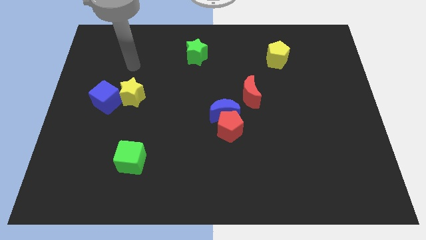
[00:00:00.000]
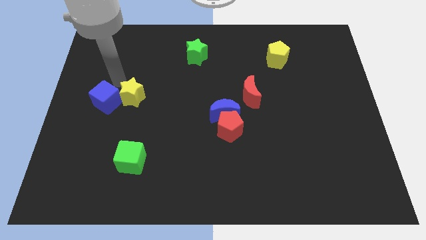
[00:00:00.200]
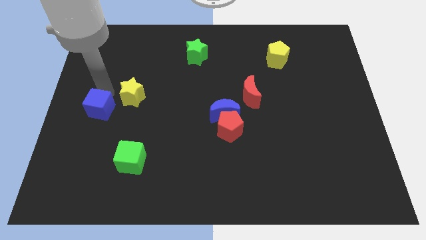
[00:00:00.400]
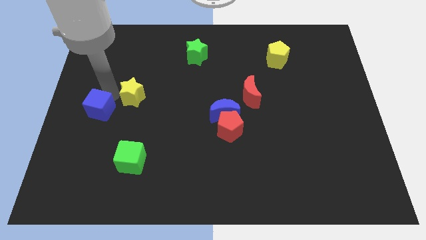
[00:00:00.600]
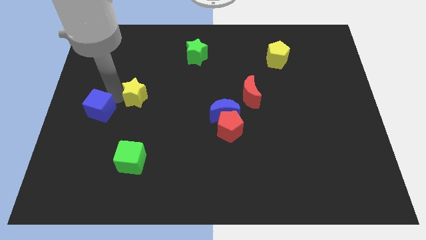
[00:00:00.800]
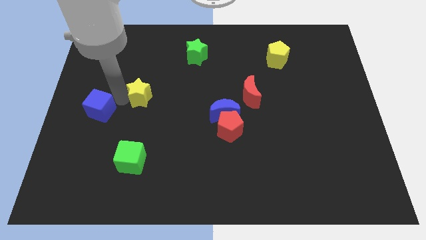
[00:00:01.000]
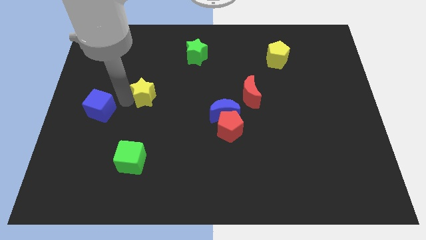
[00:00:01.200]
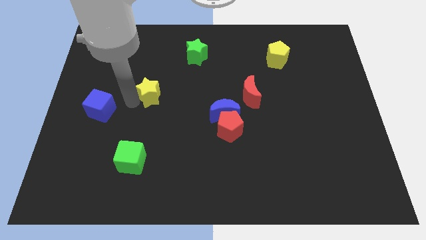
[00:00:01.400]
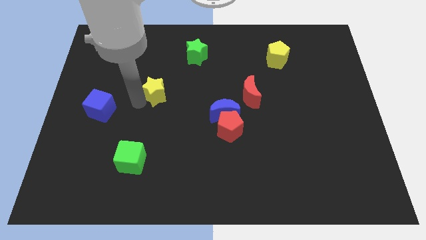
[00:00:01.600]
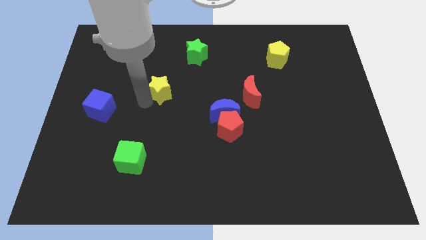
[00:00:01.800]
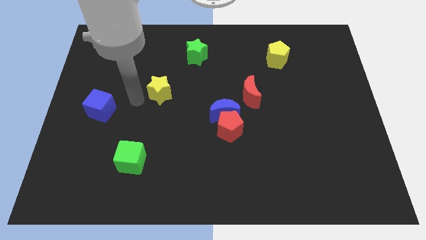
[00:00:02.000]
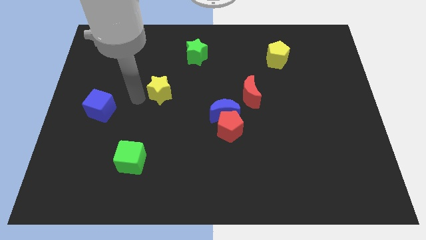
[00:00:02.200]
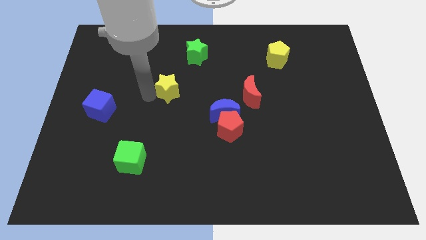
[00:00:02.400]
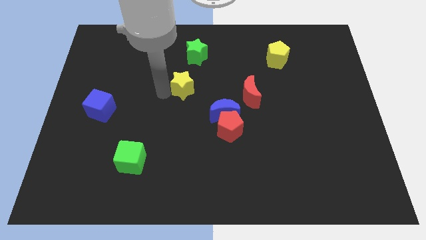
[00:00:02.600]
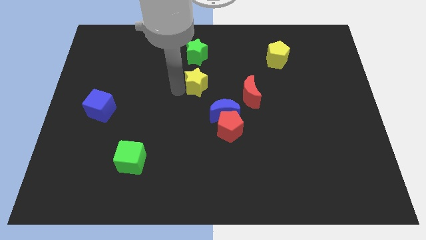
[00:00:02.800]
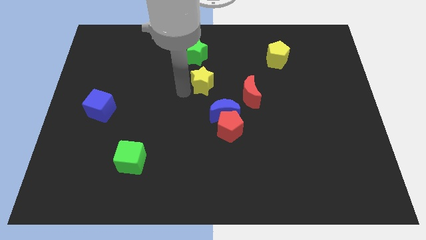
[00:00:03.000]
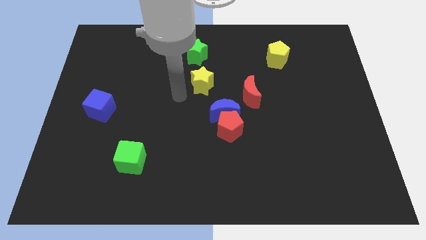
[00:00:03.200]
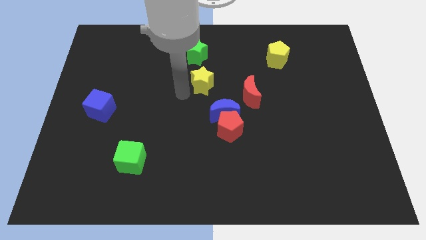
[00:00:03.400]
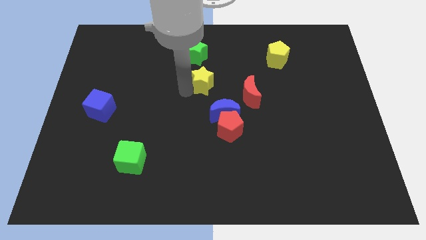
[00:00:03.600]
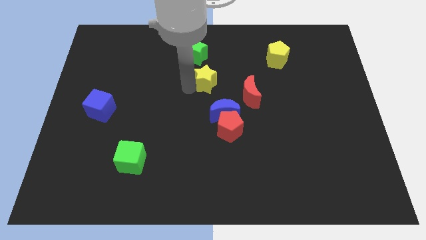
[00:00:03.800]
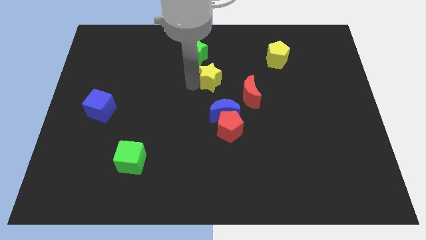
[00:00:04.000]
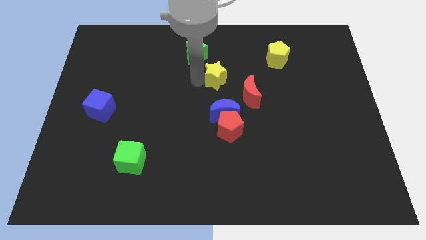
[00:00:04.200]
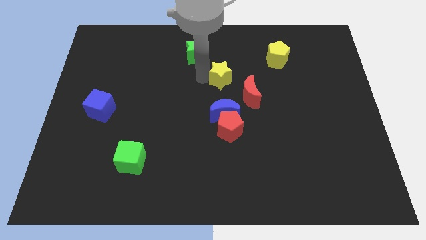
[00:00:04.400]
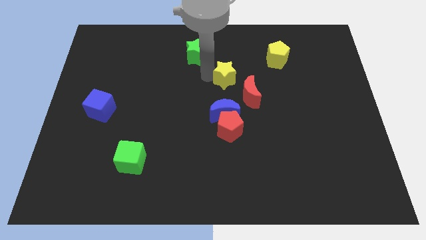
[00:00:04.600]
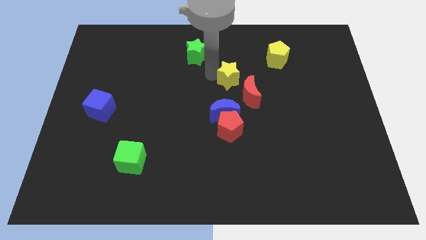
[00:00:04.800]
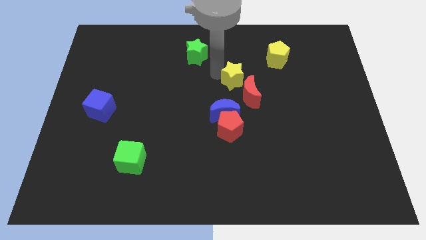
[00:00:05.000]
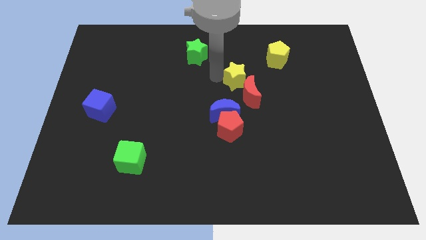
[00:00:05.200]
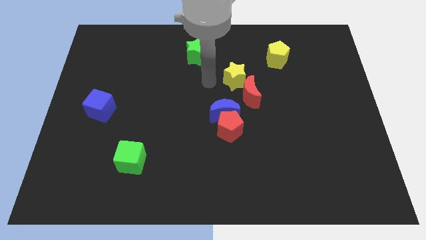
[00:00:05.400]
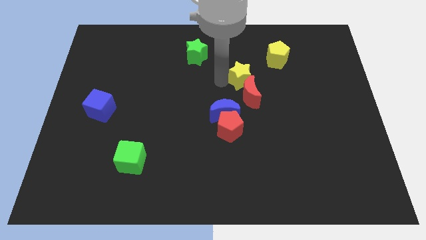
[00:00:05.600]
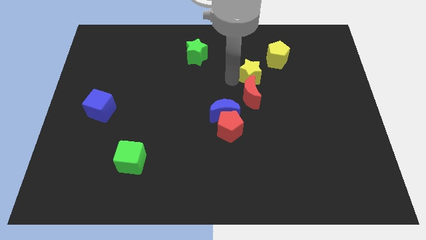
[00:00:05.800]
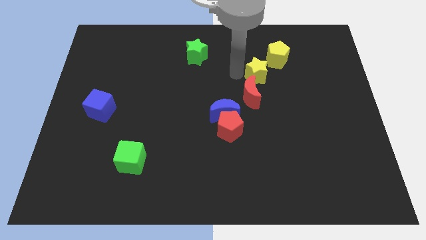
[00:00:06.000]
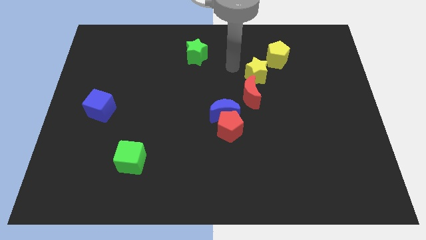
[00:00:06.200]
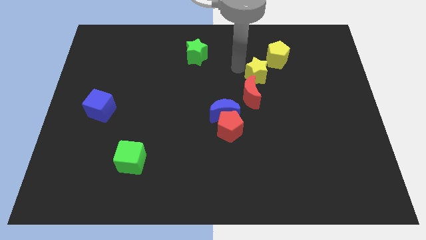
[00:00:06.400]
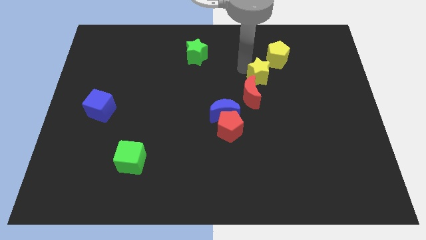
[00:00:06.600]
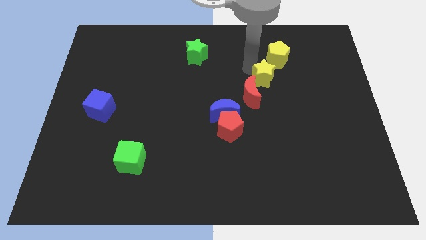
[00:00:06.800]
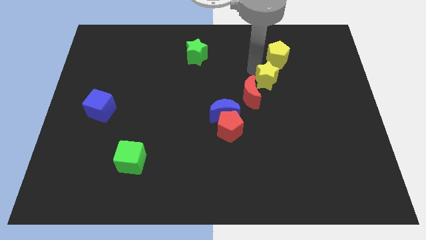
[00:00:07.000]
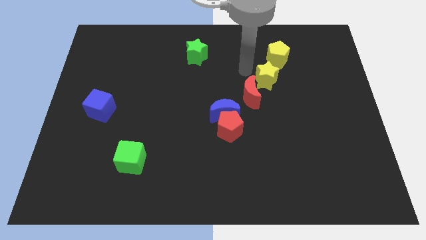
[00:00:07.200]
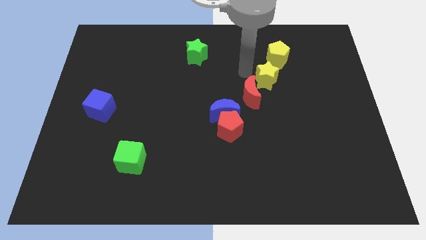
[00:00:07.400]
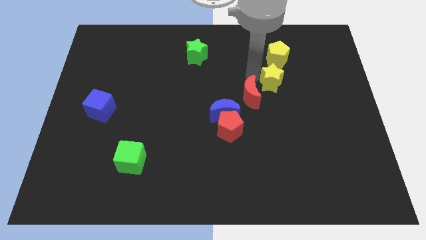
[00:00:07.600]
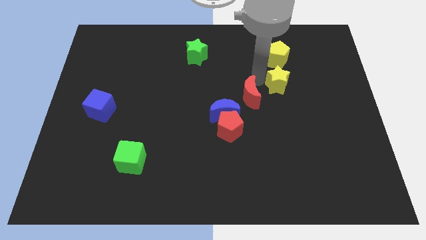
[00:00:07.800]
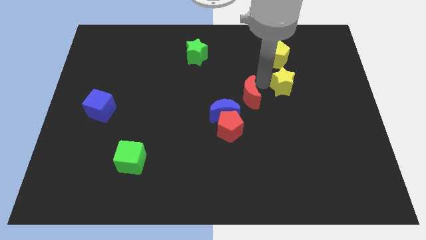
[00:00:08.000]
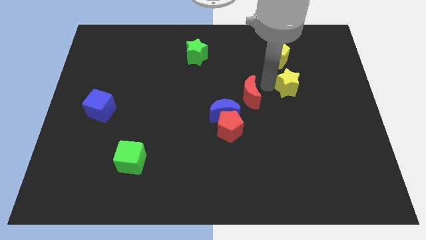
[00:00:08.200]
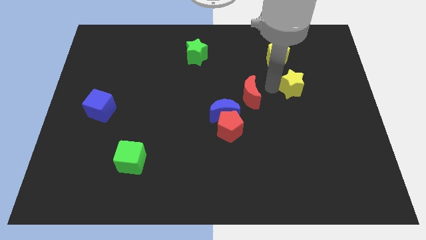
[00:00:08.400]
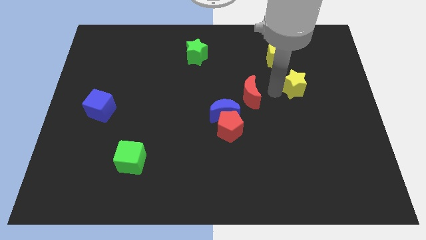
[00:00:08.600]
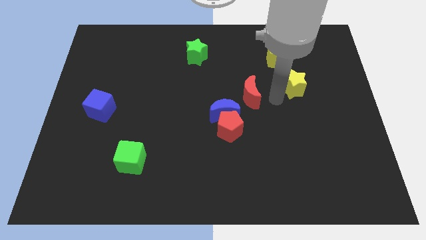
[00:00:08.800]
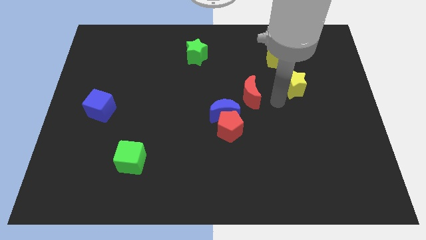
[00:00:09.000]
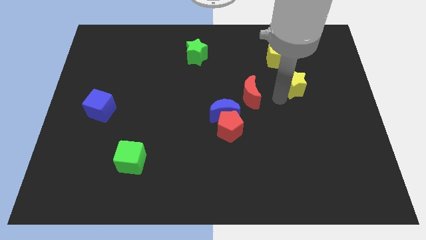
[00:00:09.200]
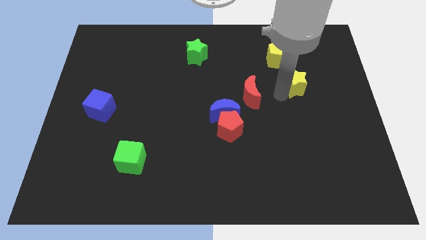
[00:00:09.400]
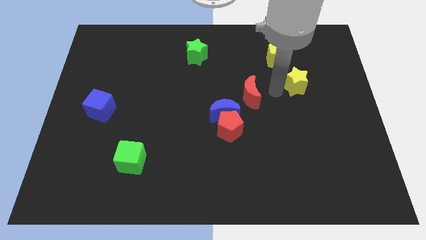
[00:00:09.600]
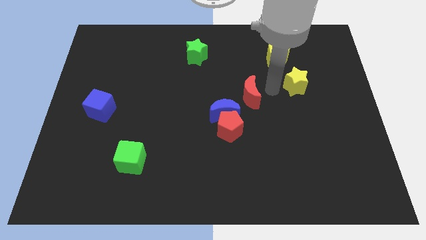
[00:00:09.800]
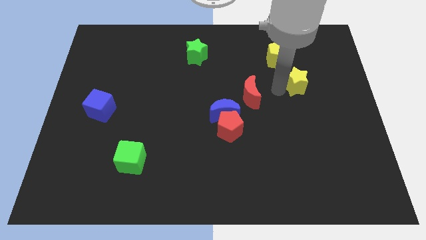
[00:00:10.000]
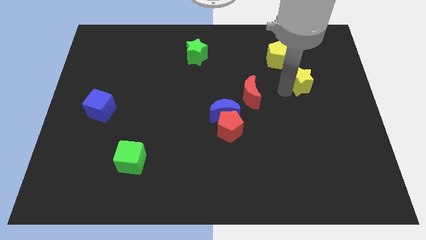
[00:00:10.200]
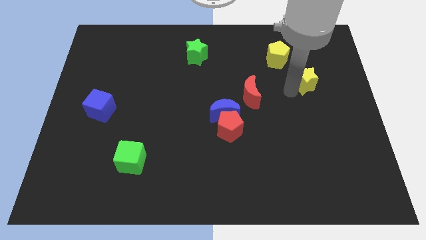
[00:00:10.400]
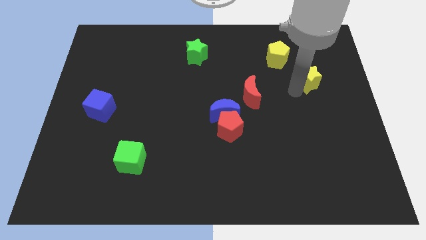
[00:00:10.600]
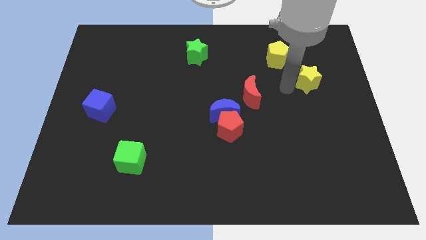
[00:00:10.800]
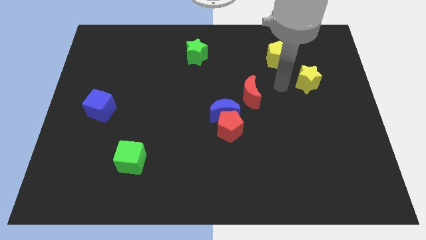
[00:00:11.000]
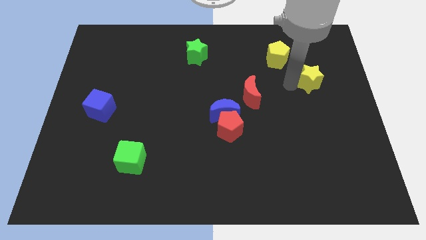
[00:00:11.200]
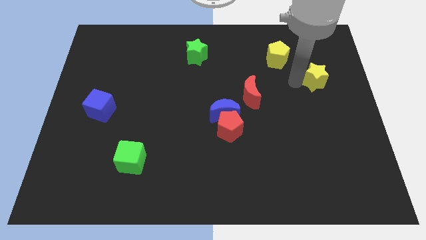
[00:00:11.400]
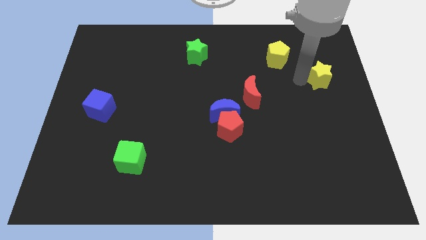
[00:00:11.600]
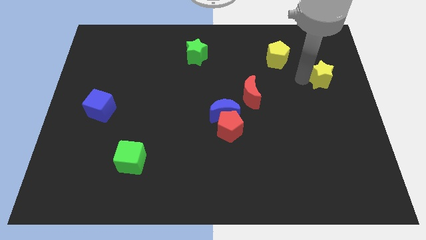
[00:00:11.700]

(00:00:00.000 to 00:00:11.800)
move the yellow star to the right side

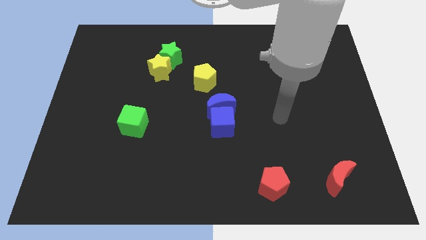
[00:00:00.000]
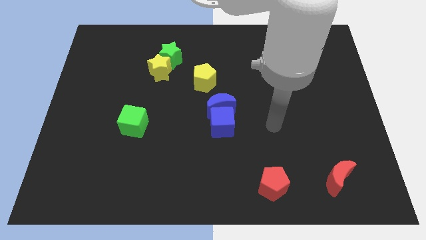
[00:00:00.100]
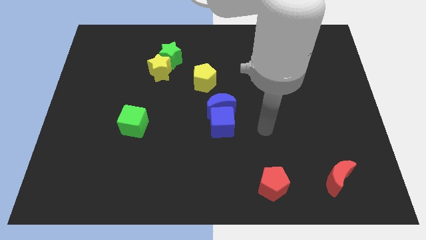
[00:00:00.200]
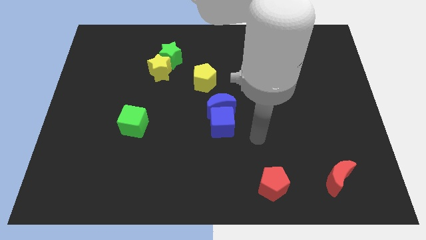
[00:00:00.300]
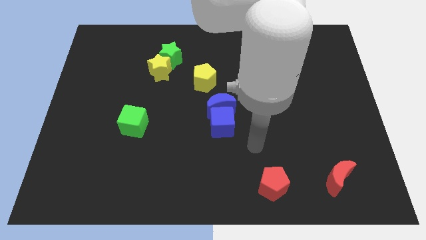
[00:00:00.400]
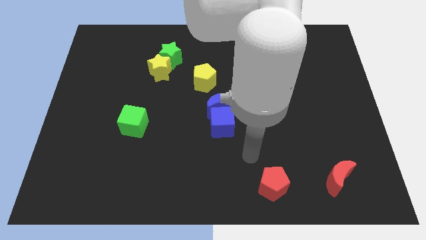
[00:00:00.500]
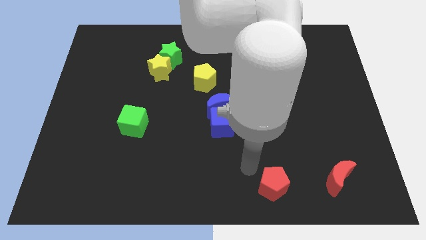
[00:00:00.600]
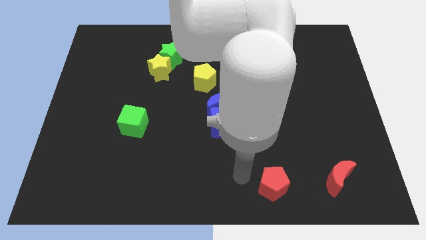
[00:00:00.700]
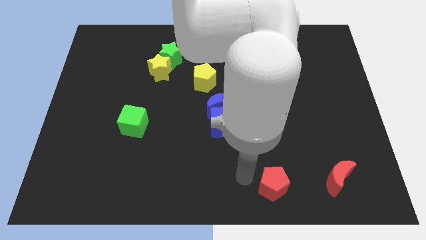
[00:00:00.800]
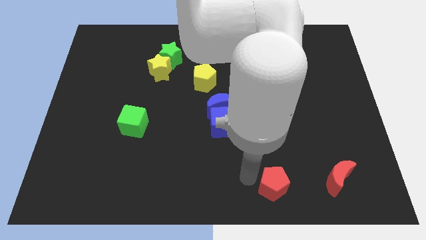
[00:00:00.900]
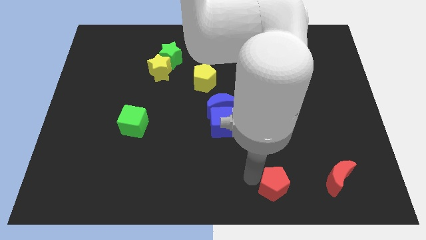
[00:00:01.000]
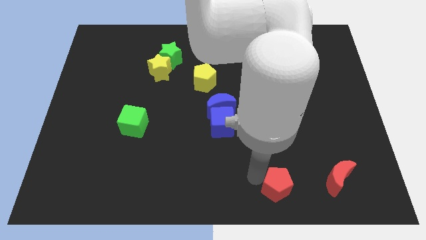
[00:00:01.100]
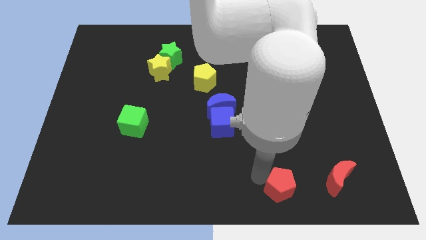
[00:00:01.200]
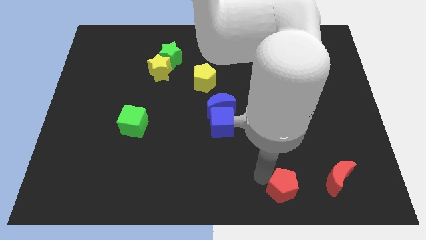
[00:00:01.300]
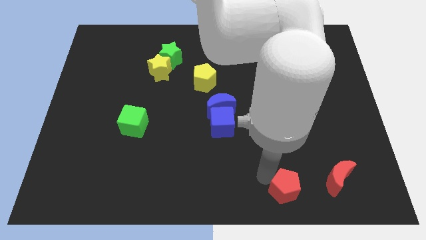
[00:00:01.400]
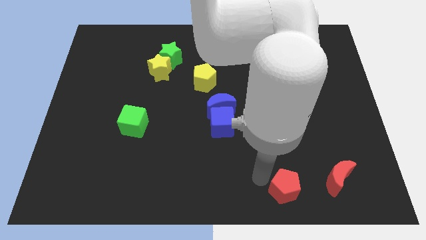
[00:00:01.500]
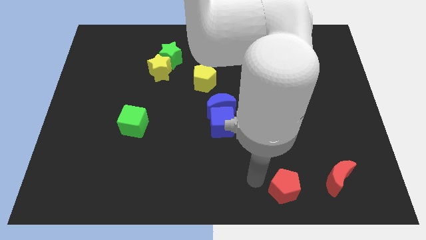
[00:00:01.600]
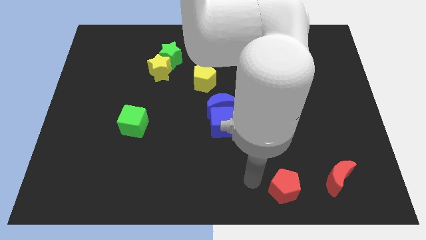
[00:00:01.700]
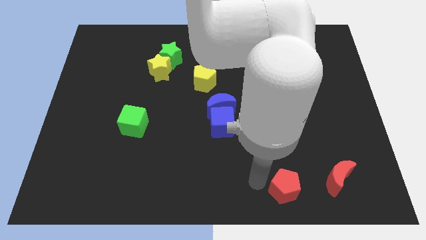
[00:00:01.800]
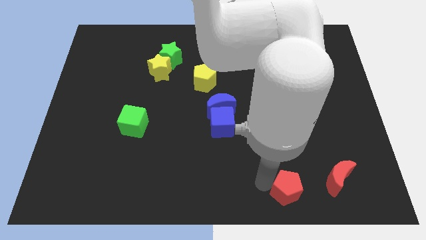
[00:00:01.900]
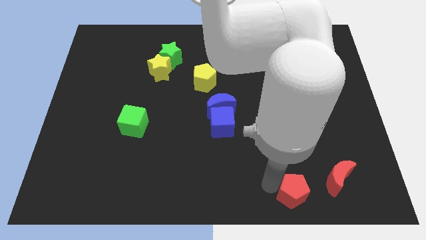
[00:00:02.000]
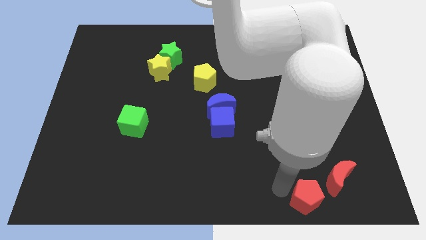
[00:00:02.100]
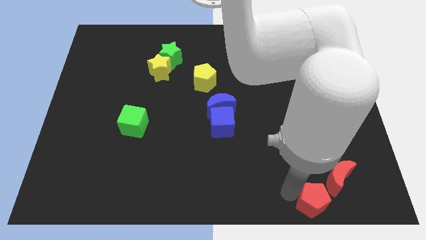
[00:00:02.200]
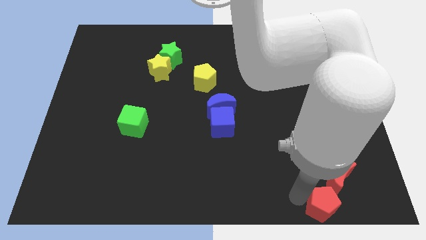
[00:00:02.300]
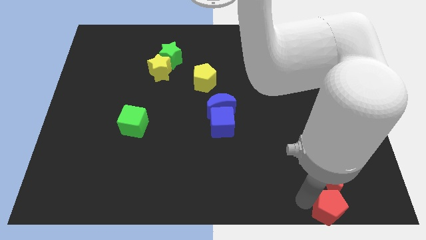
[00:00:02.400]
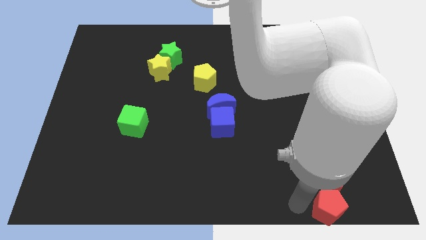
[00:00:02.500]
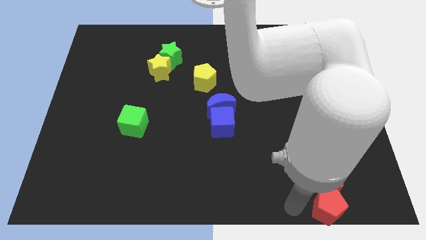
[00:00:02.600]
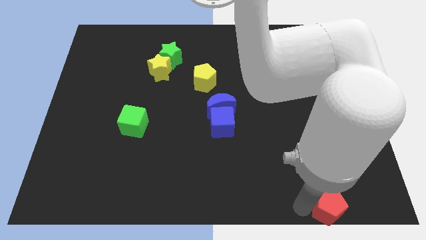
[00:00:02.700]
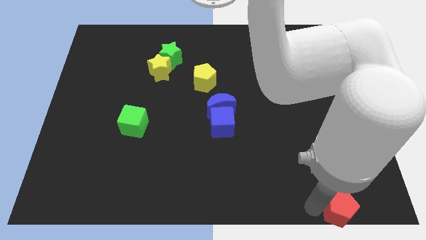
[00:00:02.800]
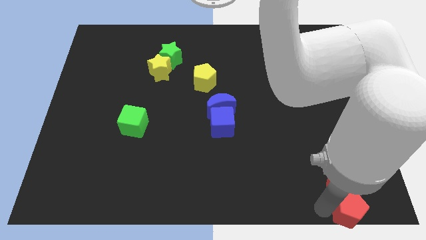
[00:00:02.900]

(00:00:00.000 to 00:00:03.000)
slide the red pentagon to the bottom right corner
